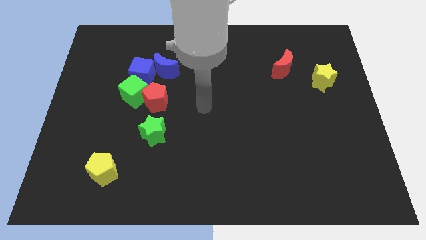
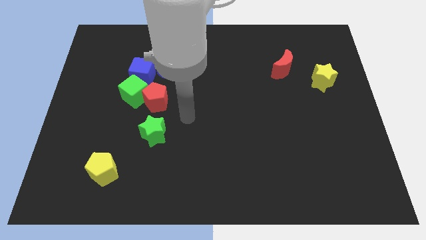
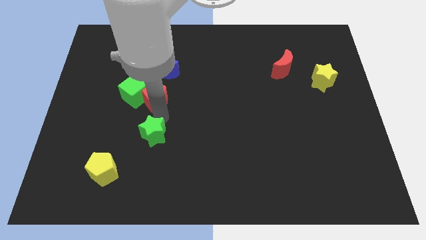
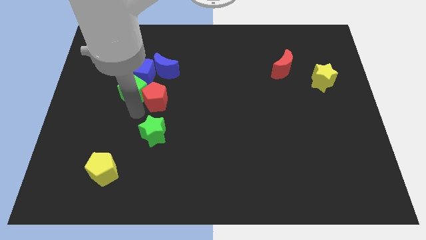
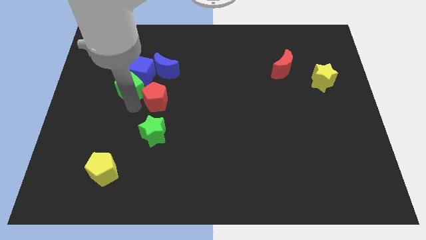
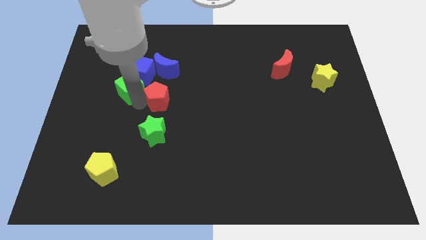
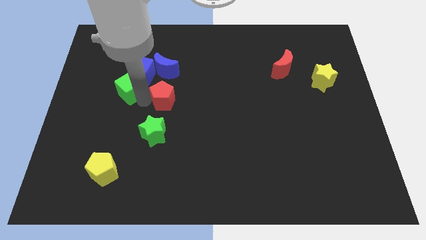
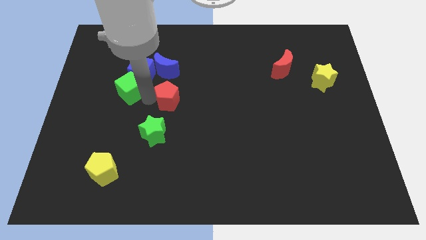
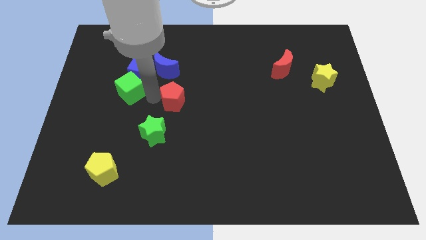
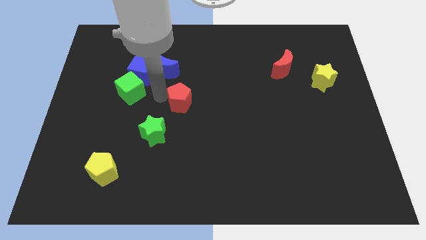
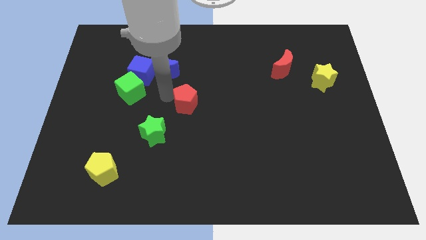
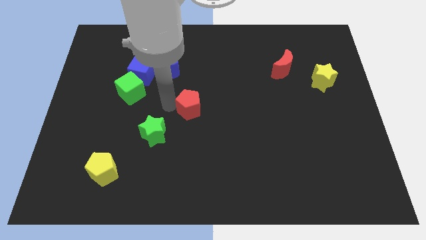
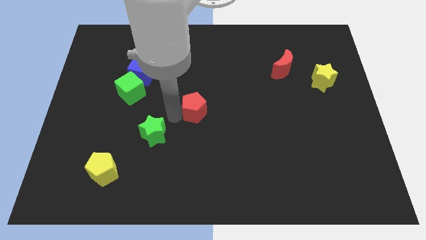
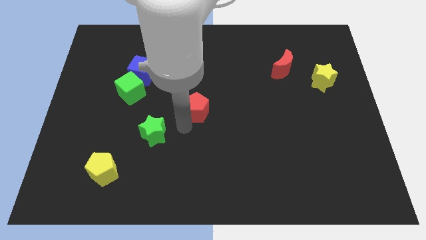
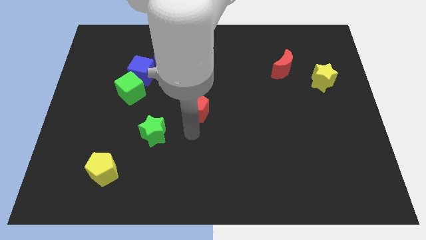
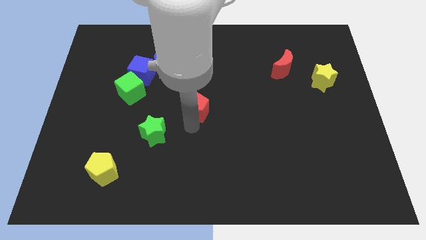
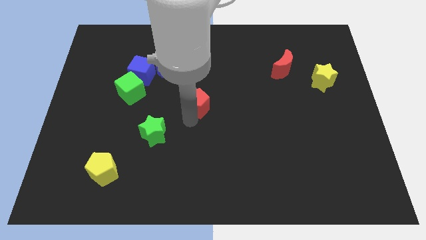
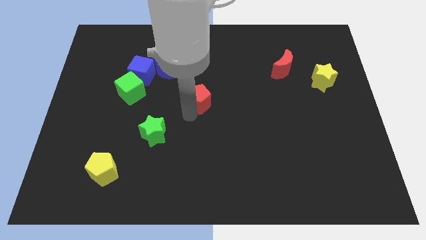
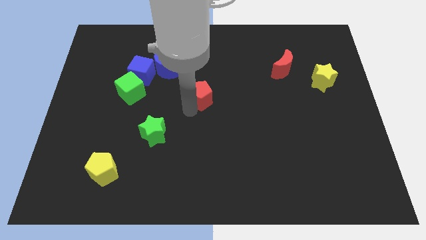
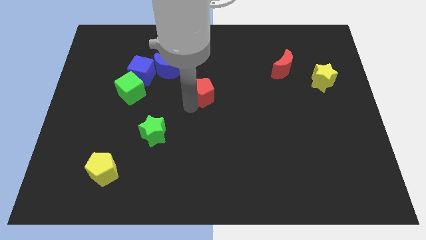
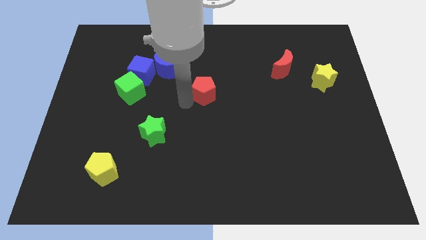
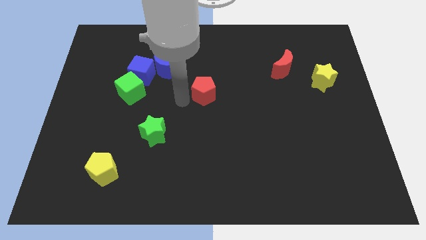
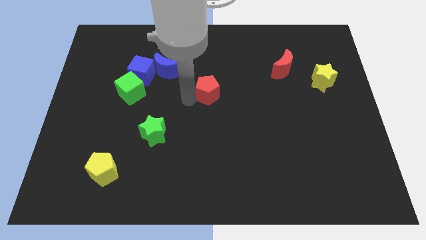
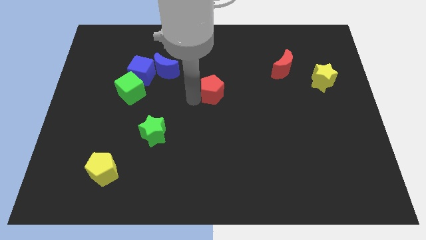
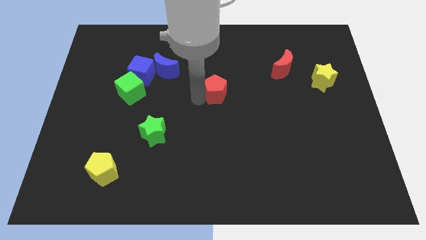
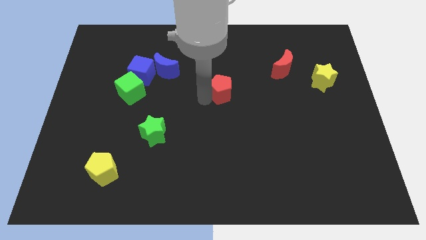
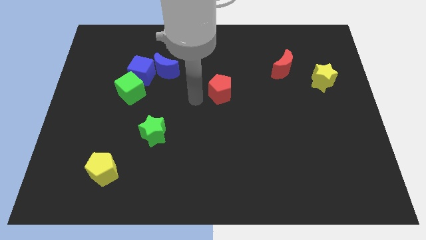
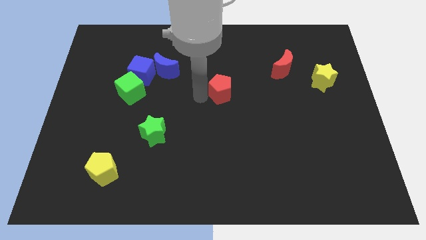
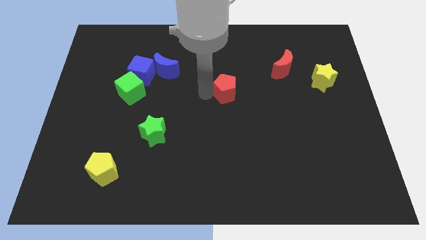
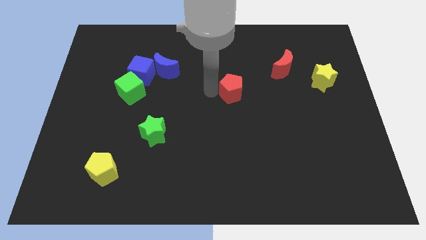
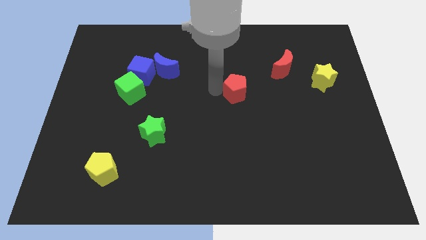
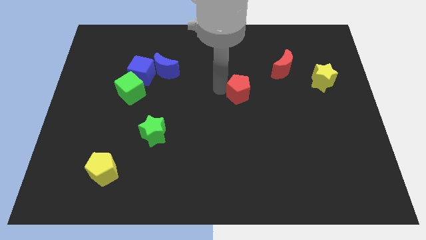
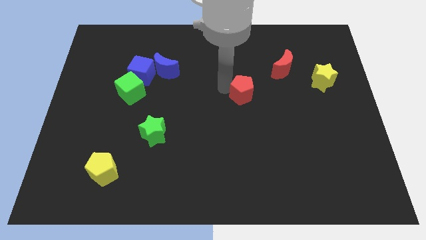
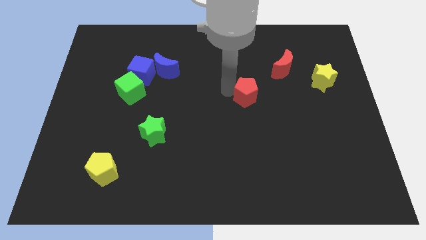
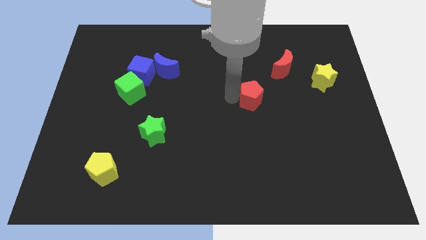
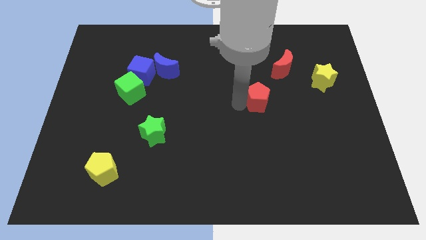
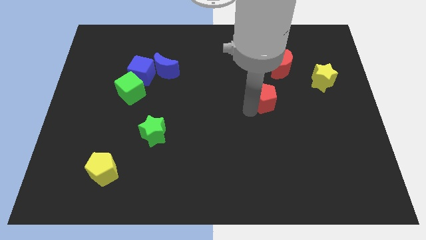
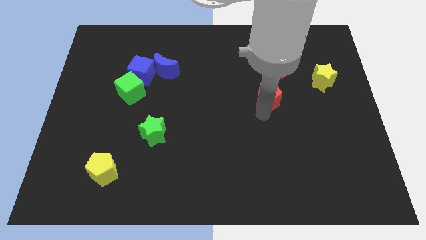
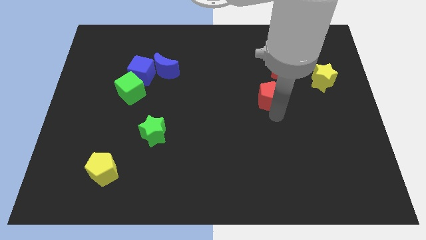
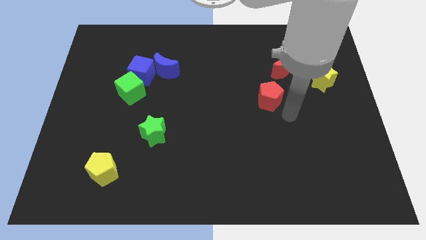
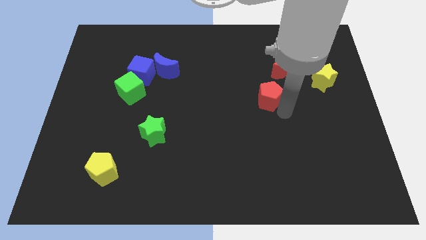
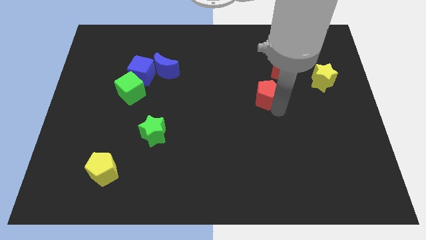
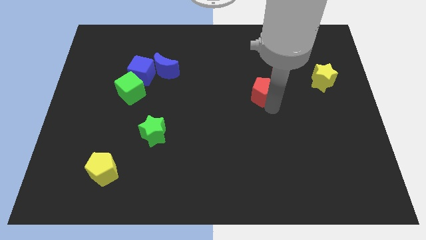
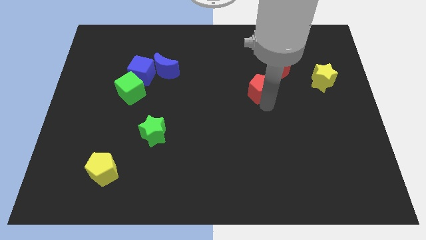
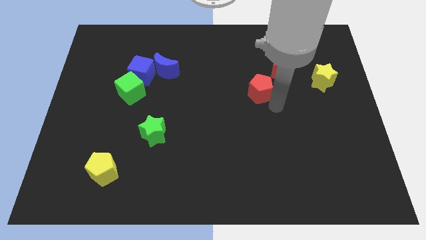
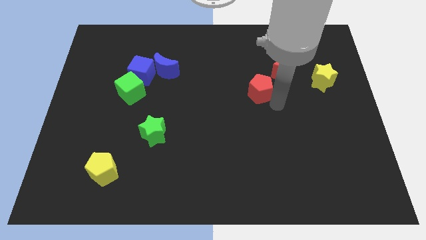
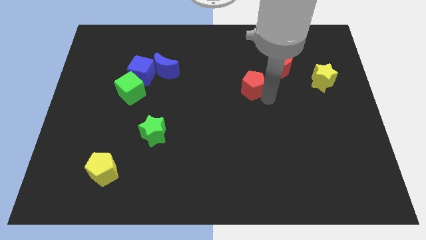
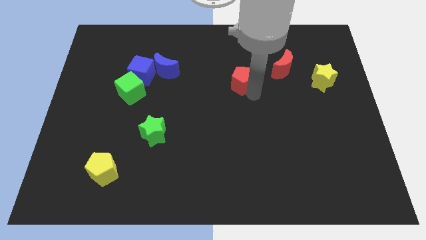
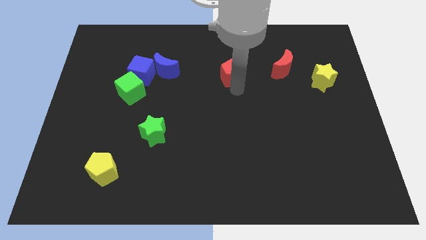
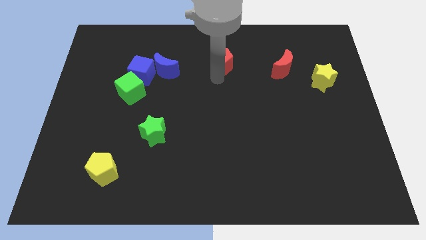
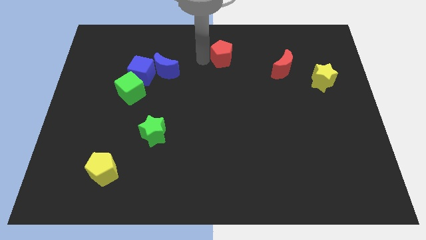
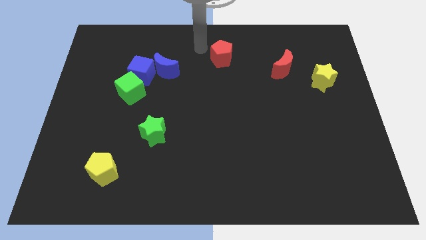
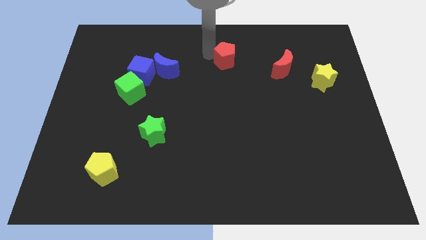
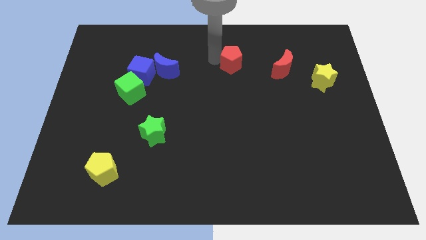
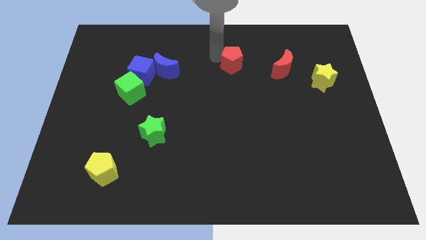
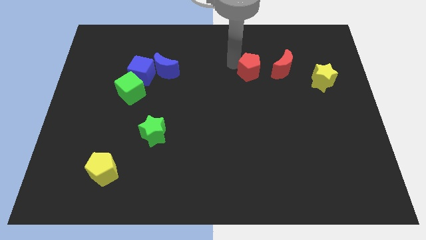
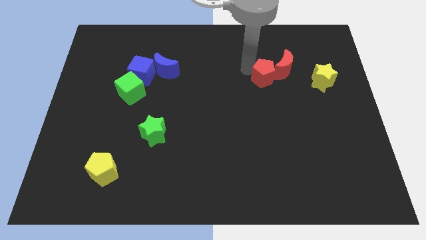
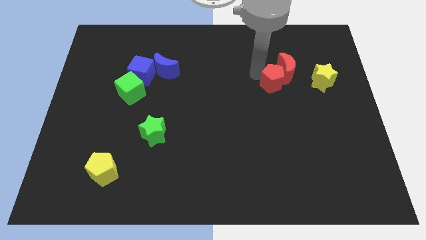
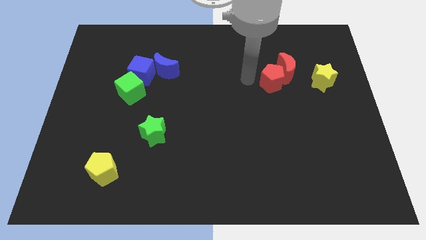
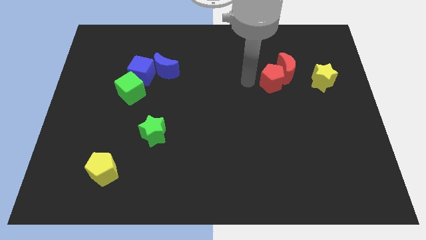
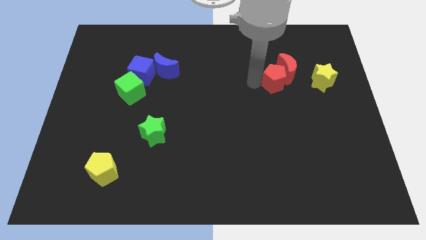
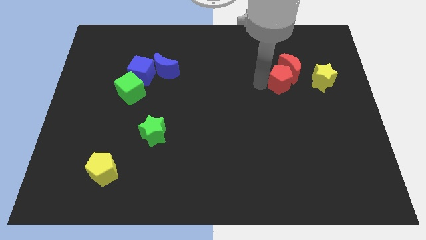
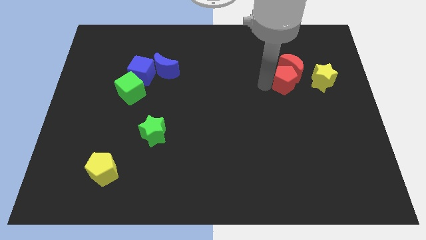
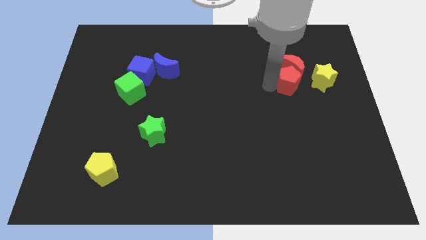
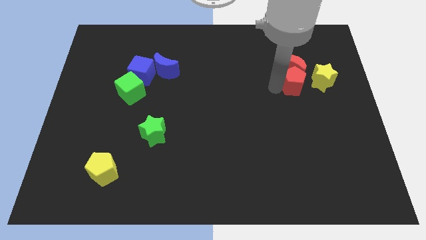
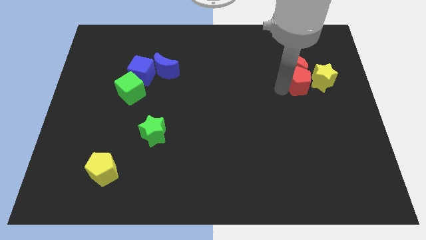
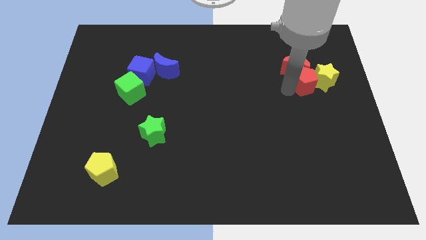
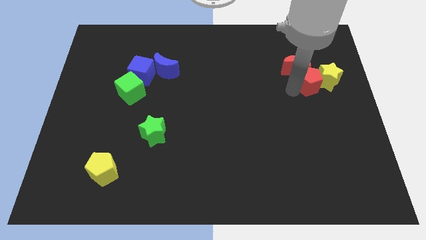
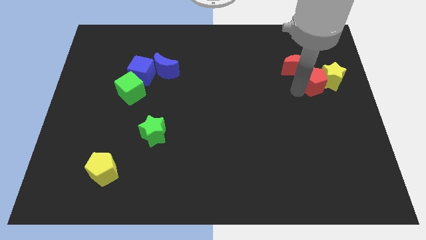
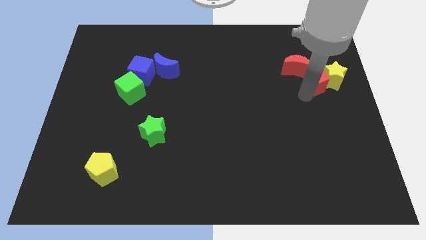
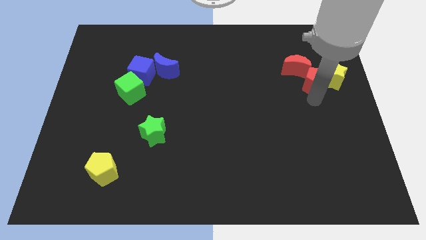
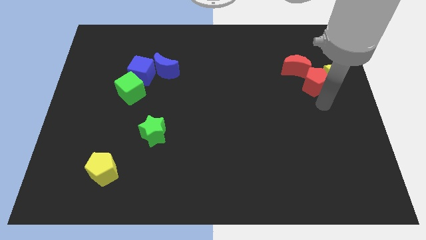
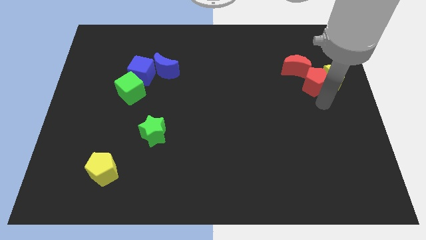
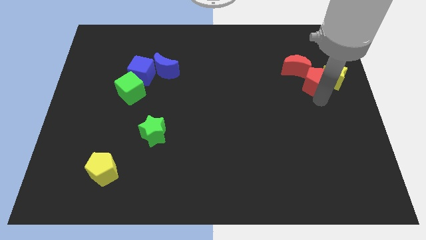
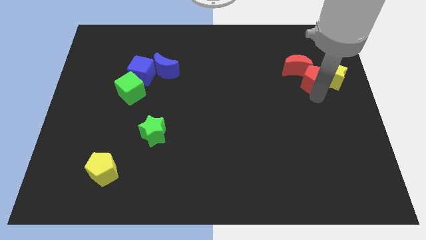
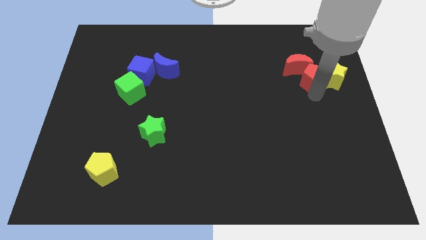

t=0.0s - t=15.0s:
put the red pentagon to the right of the red moon
